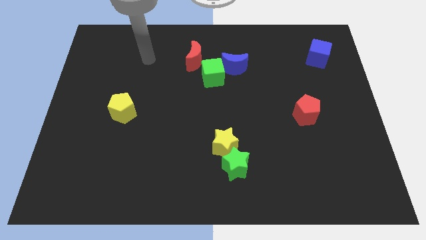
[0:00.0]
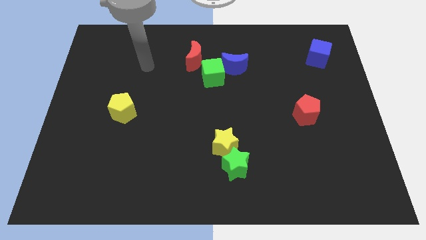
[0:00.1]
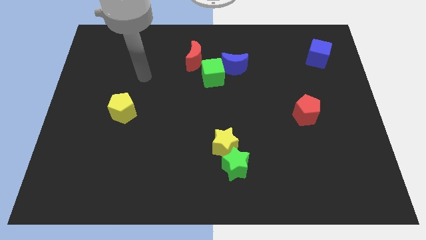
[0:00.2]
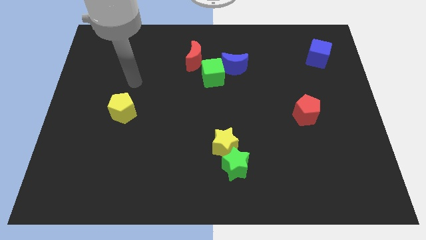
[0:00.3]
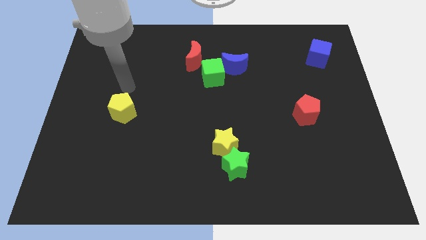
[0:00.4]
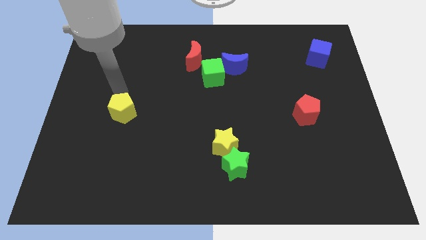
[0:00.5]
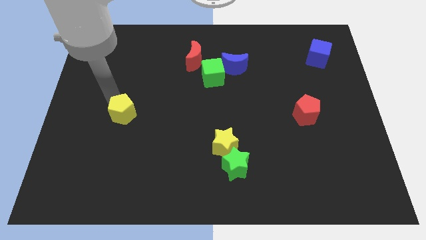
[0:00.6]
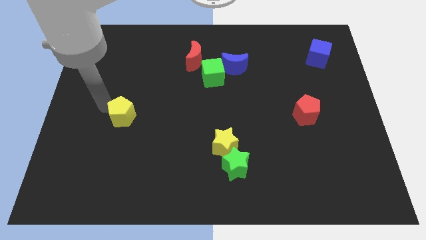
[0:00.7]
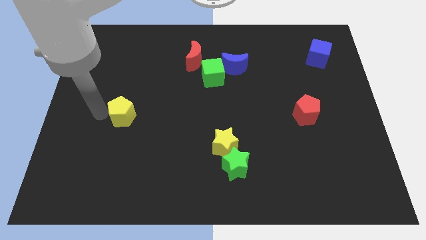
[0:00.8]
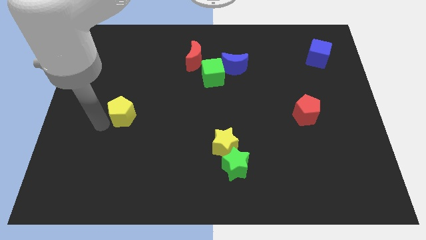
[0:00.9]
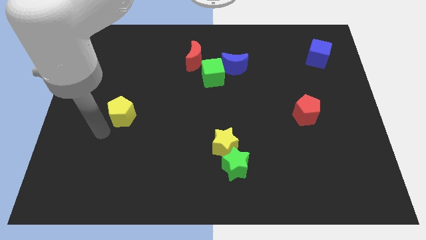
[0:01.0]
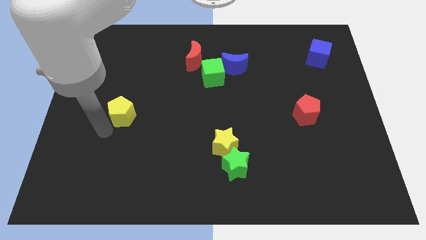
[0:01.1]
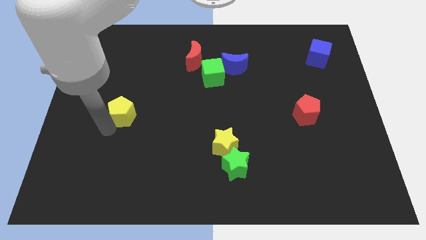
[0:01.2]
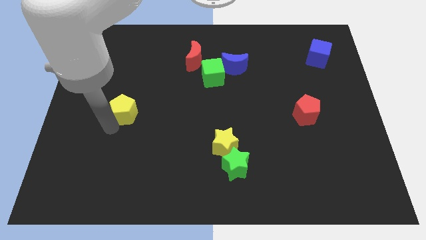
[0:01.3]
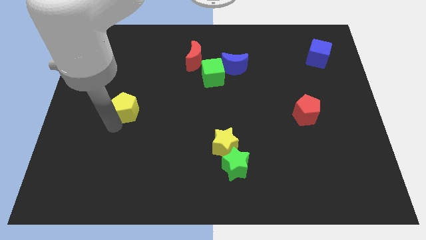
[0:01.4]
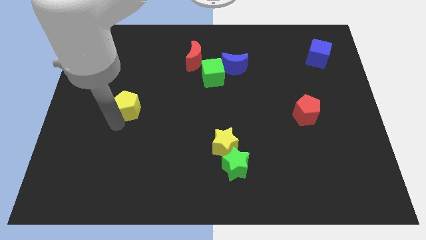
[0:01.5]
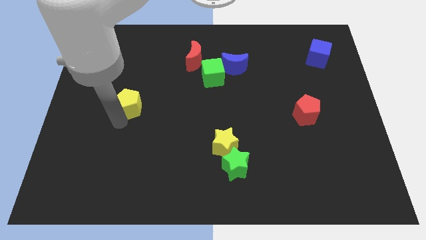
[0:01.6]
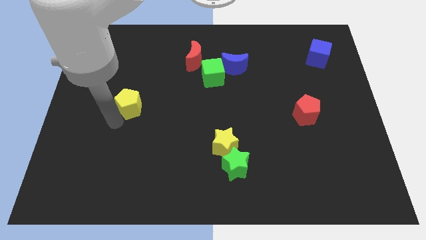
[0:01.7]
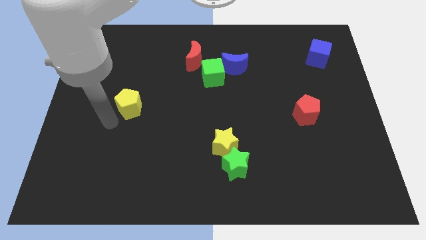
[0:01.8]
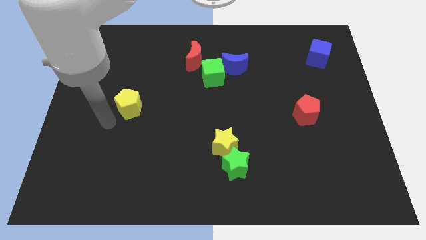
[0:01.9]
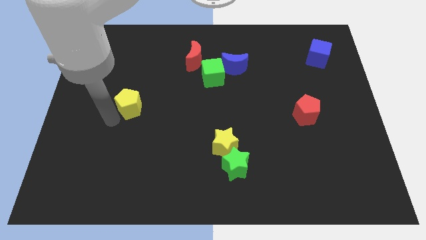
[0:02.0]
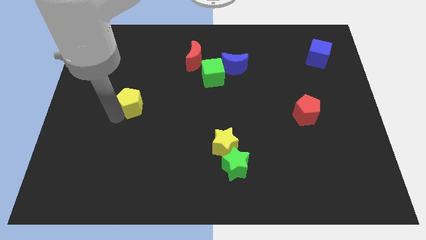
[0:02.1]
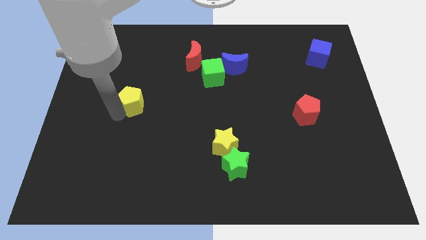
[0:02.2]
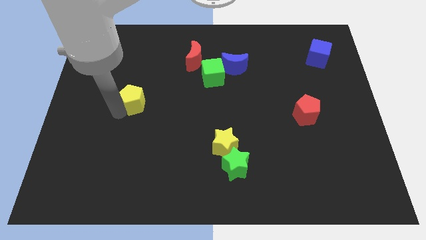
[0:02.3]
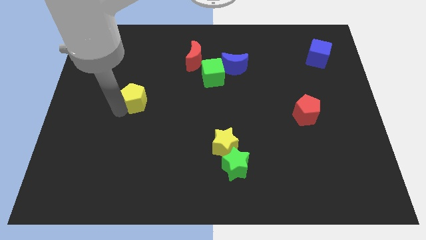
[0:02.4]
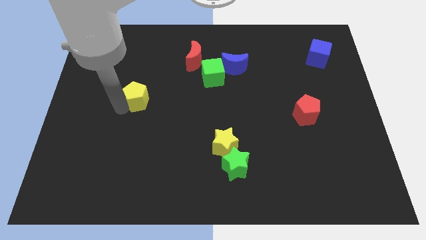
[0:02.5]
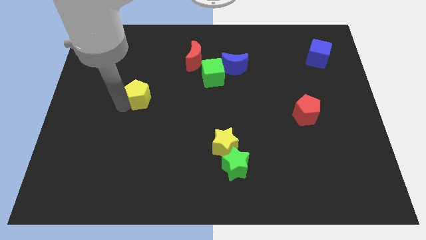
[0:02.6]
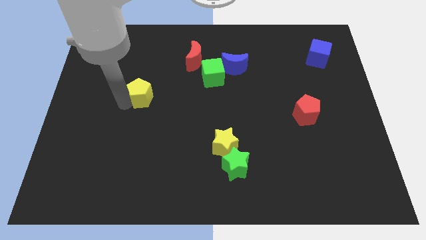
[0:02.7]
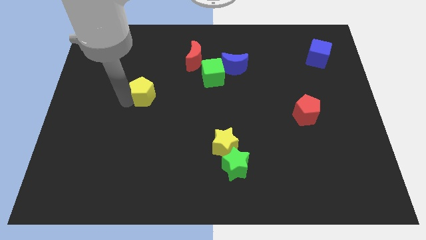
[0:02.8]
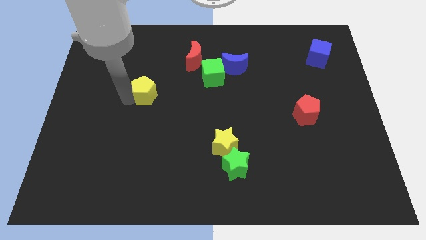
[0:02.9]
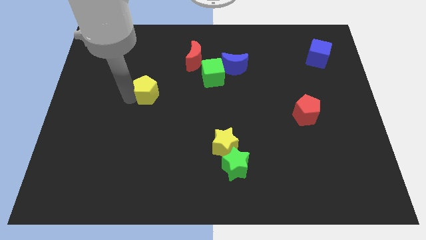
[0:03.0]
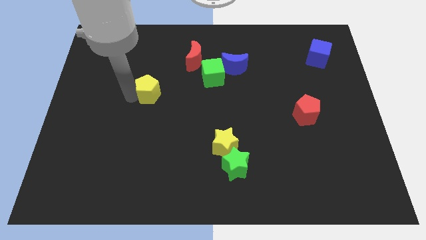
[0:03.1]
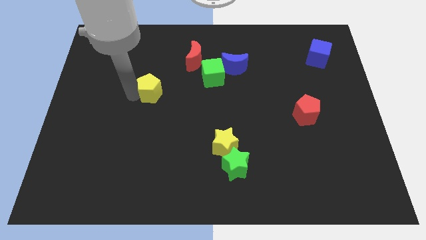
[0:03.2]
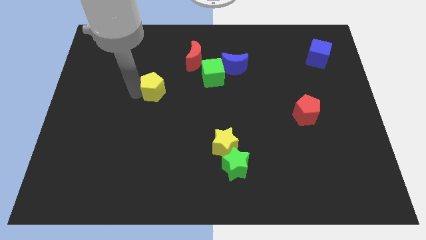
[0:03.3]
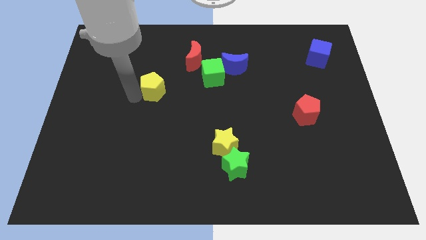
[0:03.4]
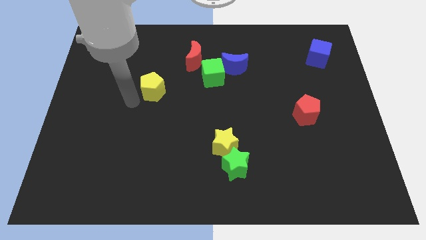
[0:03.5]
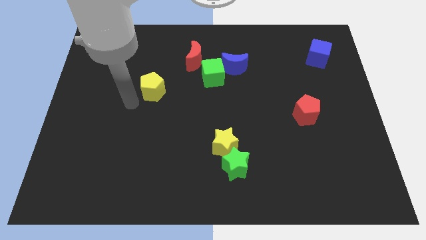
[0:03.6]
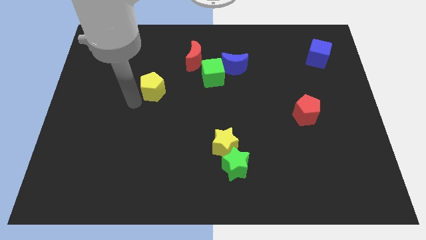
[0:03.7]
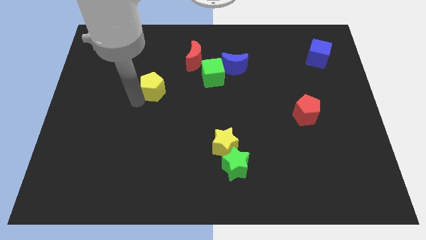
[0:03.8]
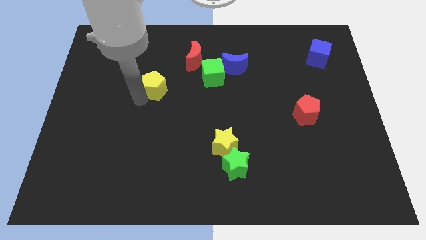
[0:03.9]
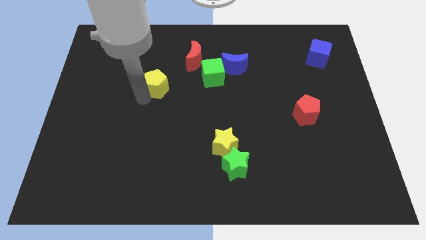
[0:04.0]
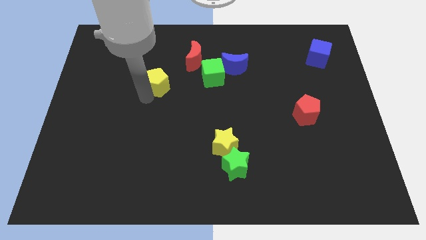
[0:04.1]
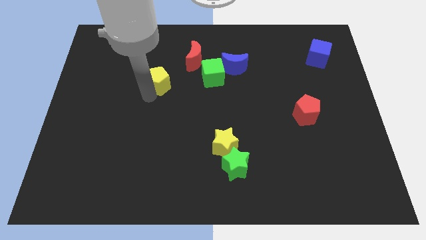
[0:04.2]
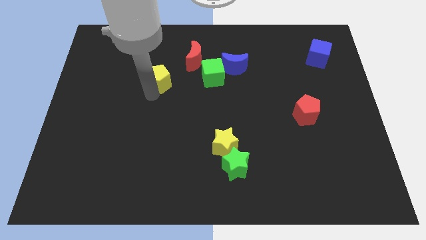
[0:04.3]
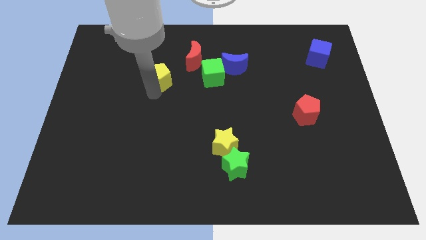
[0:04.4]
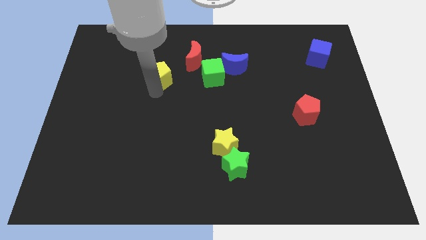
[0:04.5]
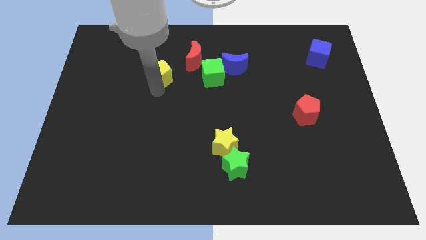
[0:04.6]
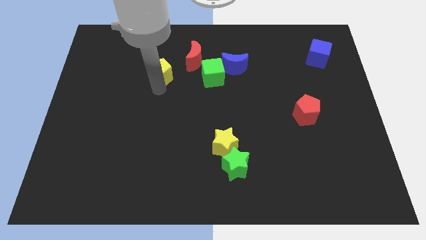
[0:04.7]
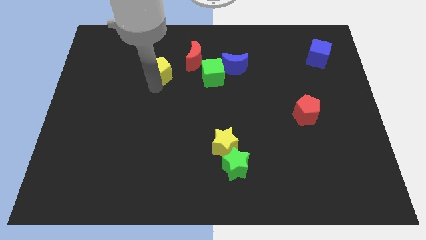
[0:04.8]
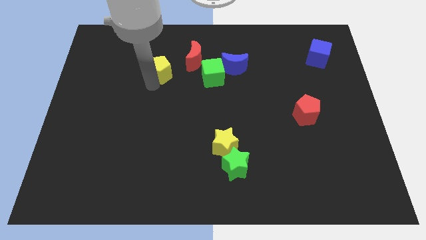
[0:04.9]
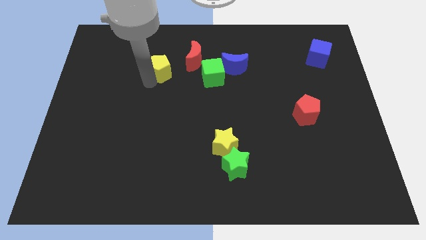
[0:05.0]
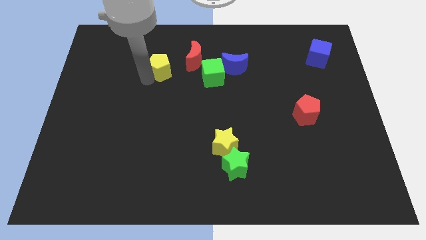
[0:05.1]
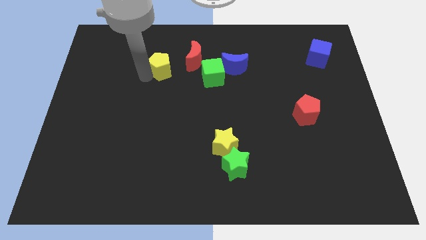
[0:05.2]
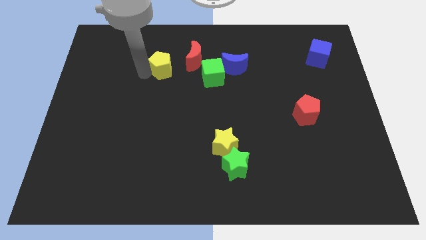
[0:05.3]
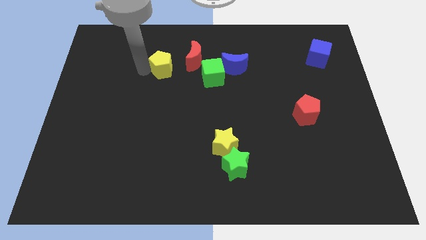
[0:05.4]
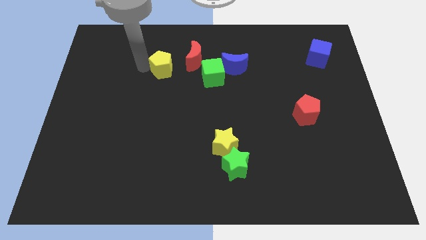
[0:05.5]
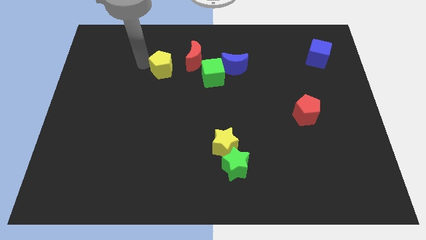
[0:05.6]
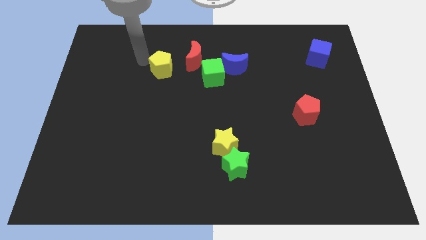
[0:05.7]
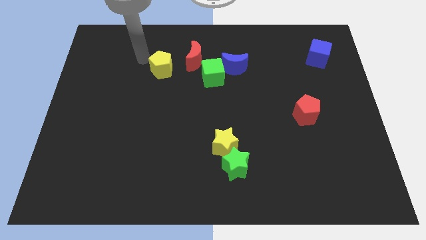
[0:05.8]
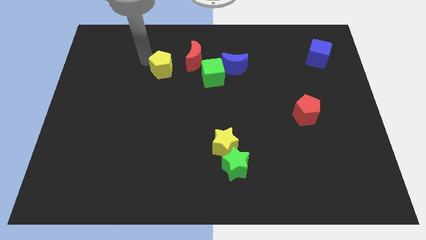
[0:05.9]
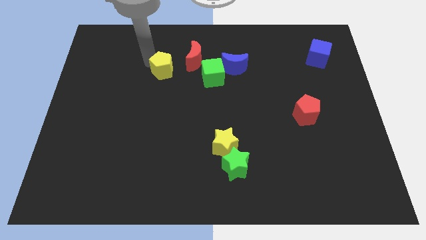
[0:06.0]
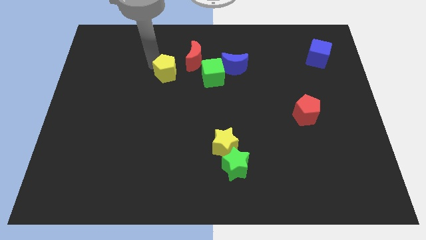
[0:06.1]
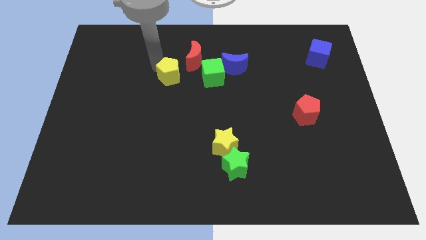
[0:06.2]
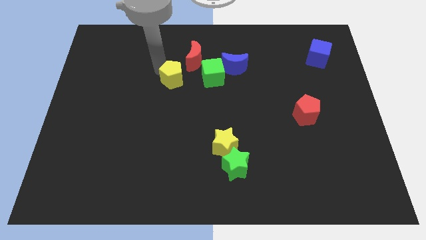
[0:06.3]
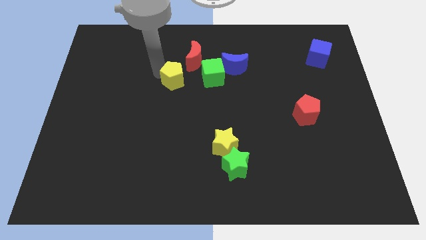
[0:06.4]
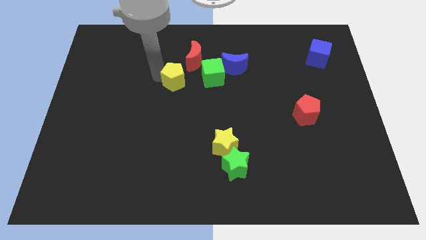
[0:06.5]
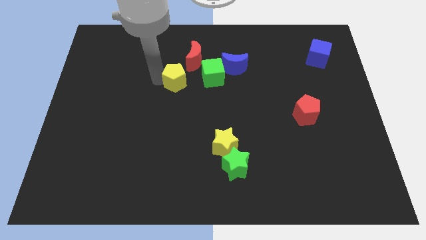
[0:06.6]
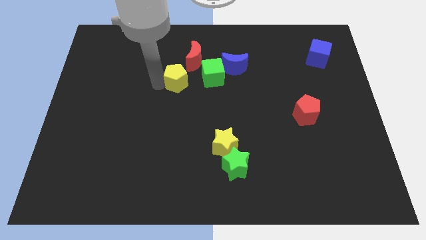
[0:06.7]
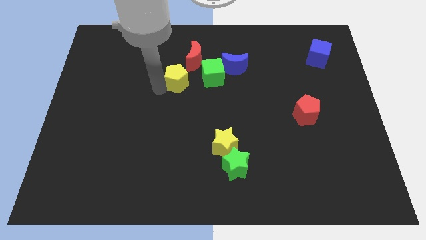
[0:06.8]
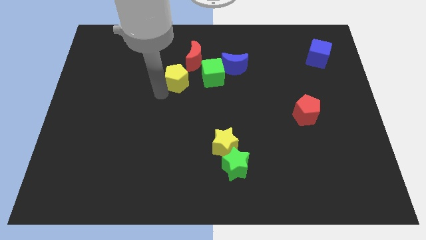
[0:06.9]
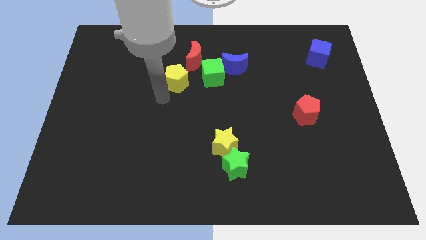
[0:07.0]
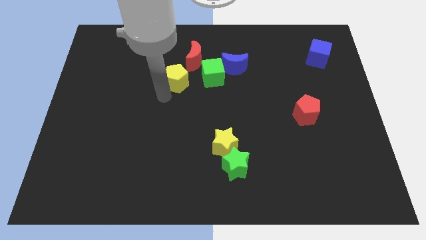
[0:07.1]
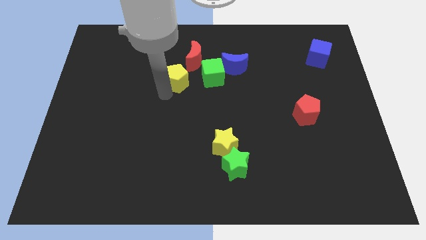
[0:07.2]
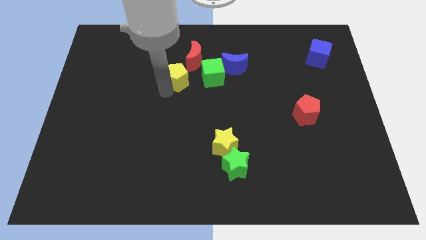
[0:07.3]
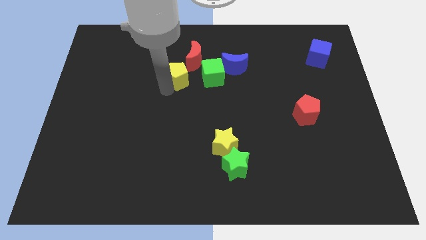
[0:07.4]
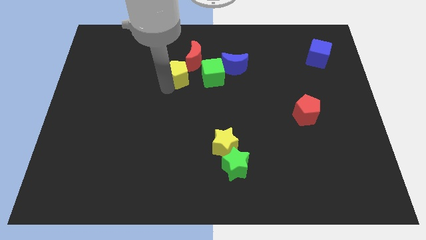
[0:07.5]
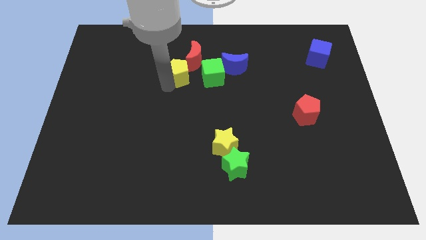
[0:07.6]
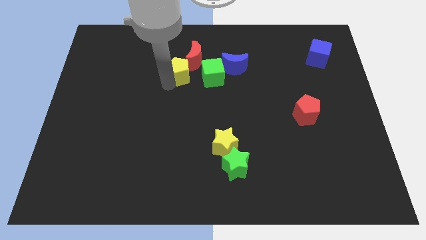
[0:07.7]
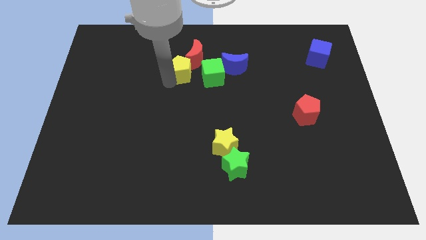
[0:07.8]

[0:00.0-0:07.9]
move the yellow pentagon towards the red moon
